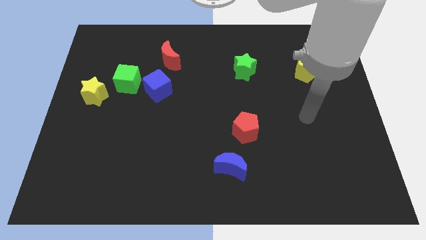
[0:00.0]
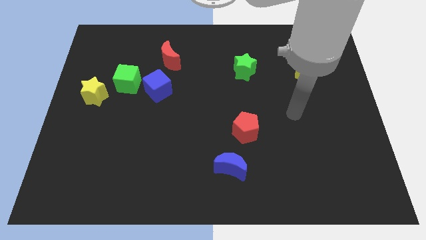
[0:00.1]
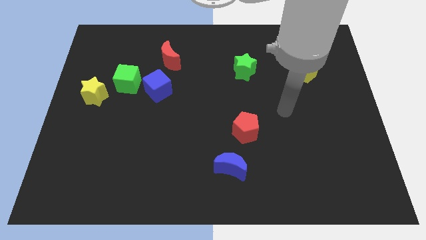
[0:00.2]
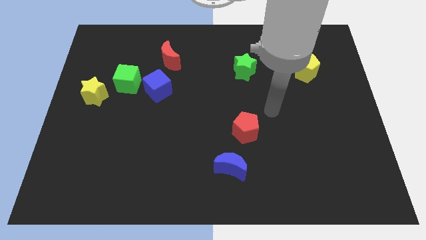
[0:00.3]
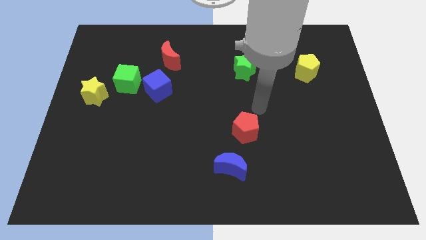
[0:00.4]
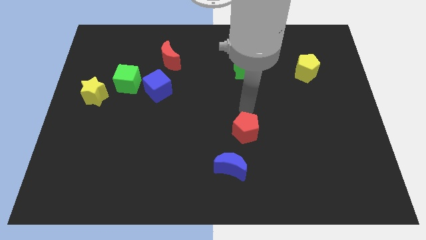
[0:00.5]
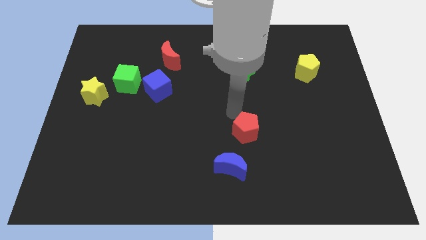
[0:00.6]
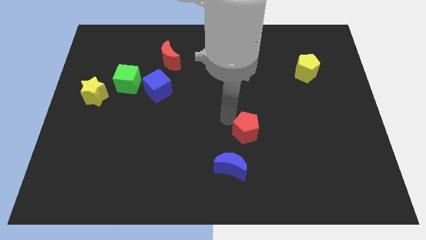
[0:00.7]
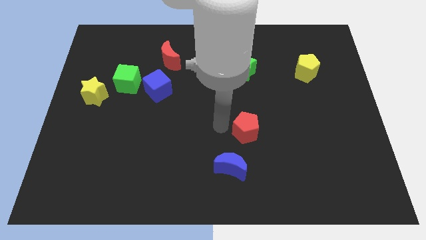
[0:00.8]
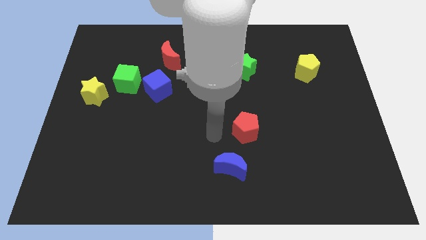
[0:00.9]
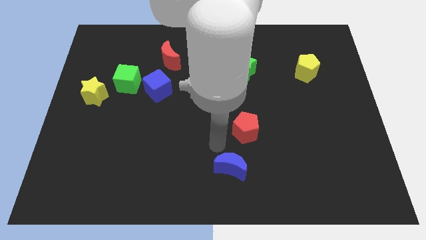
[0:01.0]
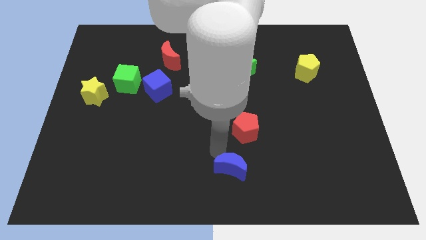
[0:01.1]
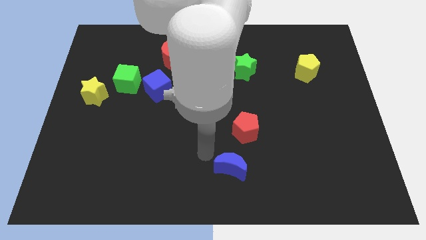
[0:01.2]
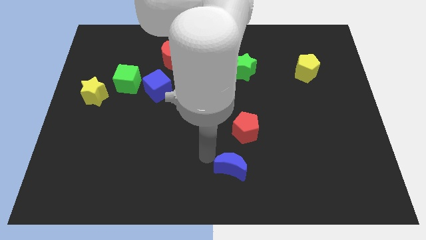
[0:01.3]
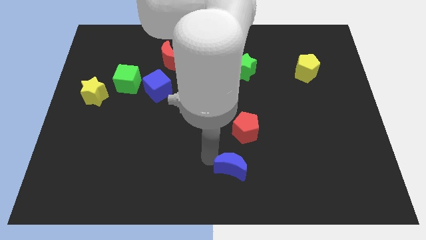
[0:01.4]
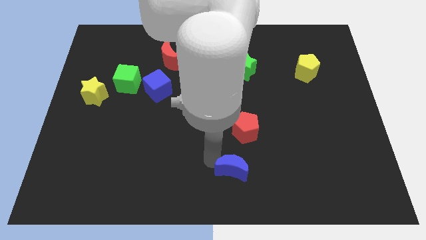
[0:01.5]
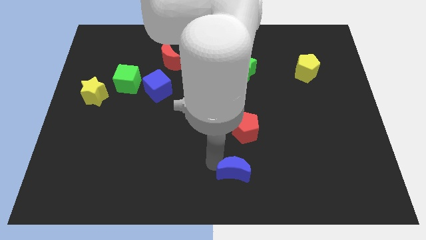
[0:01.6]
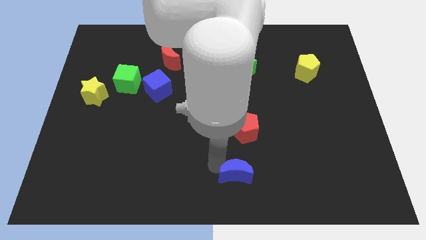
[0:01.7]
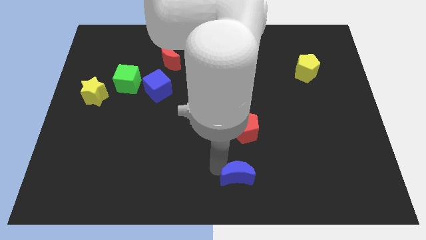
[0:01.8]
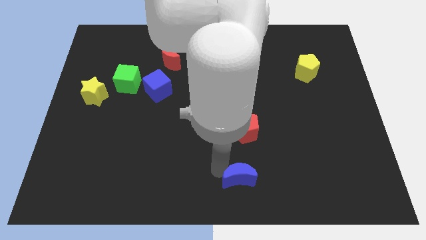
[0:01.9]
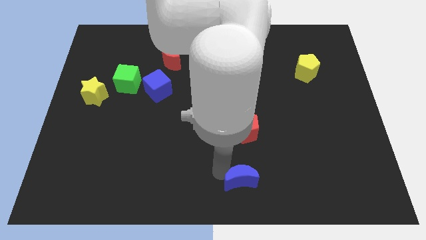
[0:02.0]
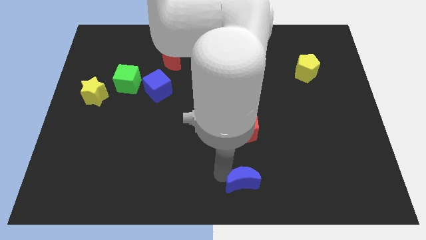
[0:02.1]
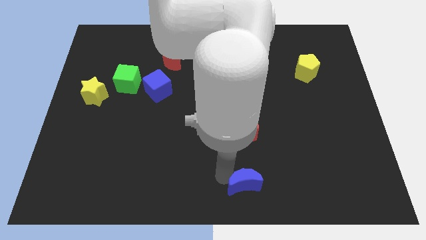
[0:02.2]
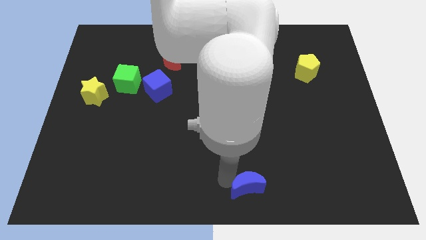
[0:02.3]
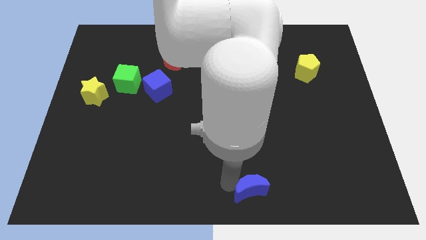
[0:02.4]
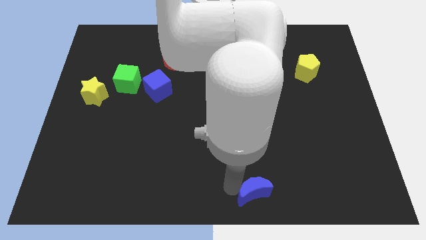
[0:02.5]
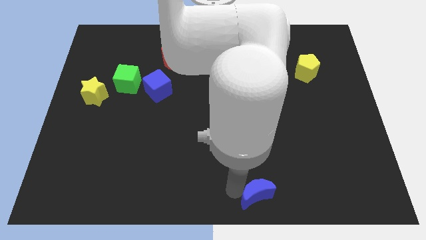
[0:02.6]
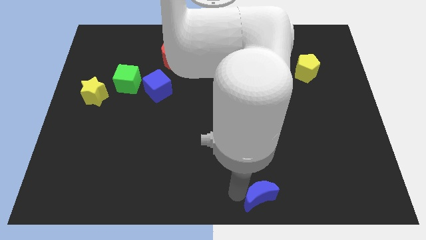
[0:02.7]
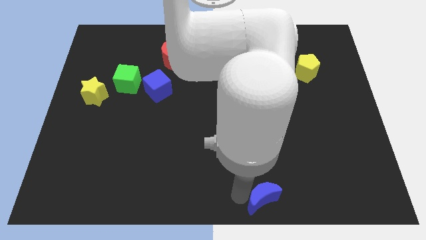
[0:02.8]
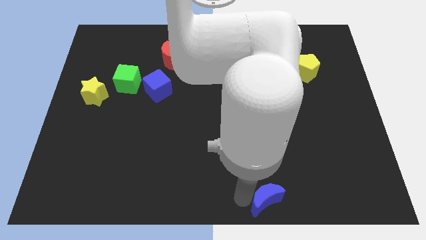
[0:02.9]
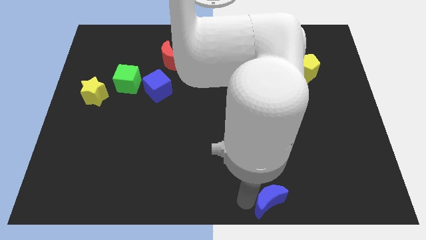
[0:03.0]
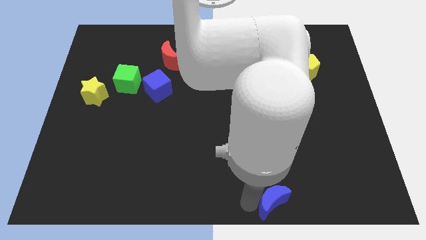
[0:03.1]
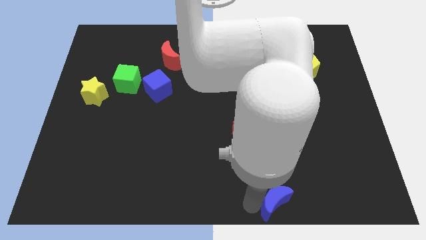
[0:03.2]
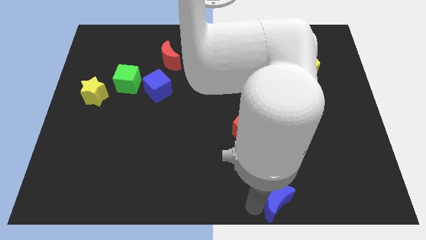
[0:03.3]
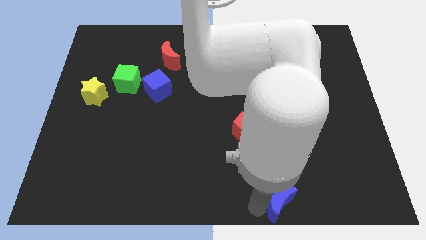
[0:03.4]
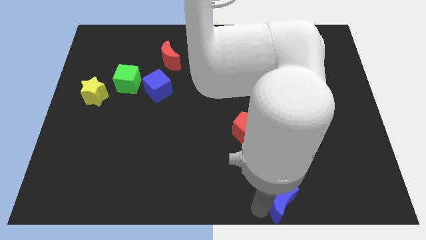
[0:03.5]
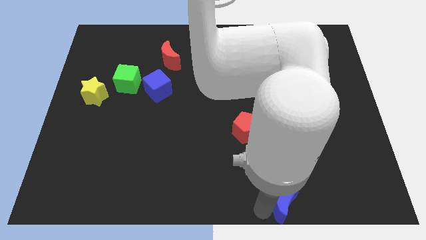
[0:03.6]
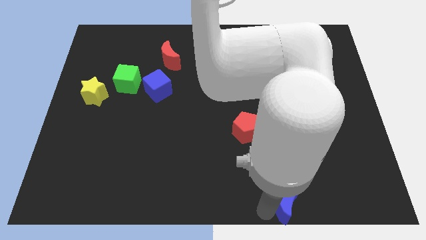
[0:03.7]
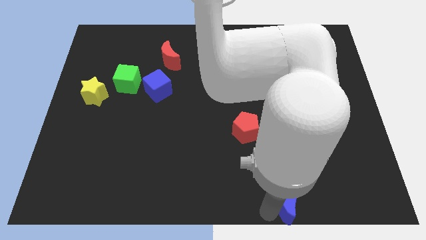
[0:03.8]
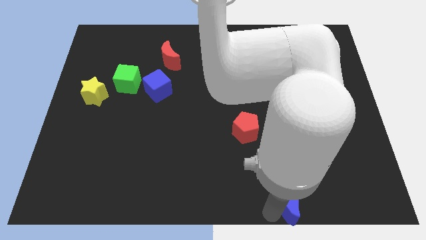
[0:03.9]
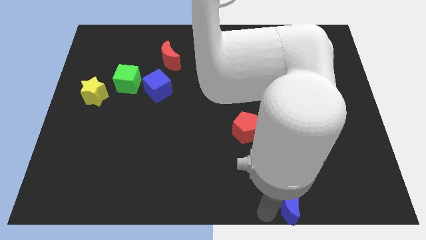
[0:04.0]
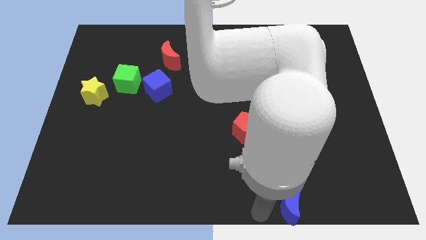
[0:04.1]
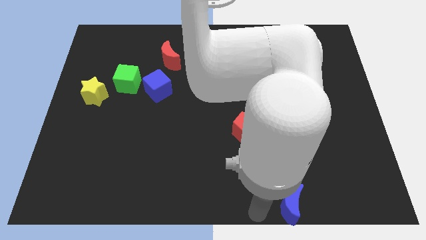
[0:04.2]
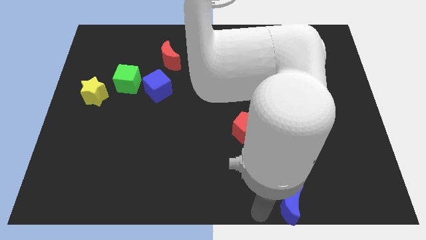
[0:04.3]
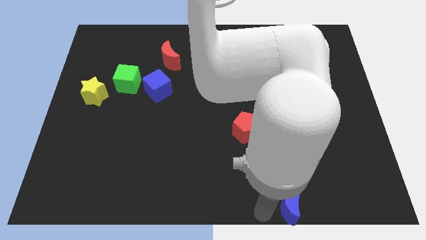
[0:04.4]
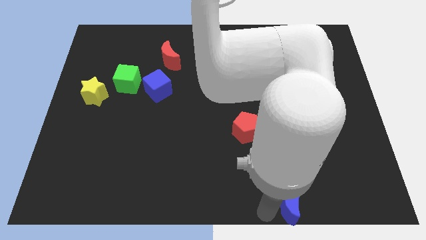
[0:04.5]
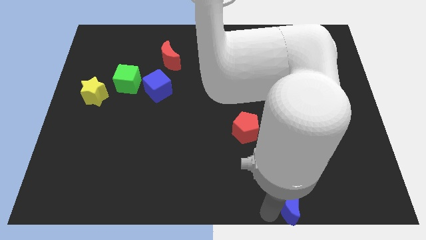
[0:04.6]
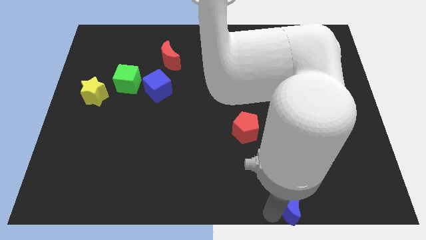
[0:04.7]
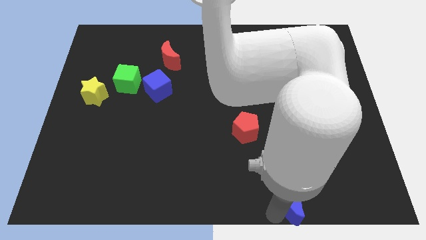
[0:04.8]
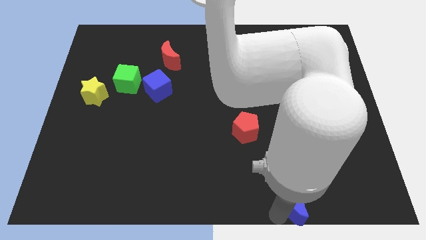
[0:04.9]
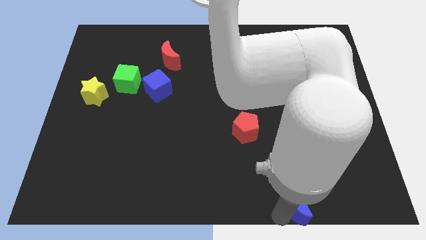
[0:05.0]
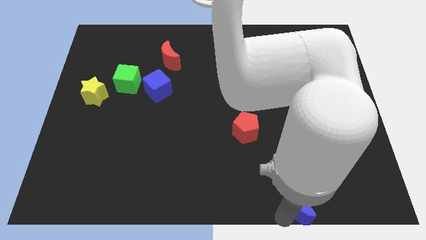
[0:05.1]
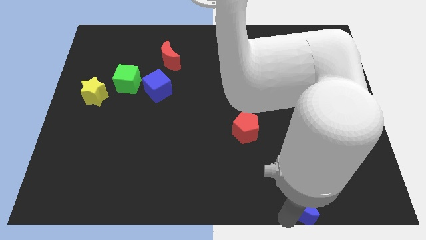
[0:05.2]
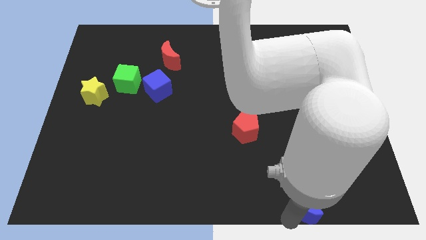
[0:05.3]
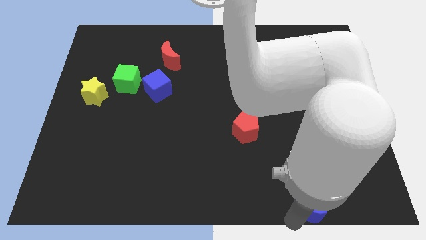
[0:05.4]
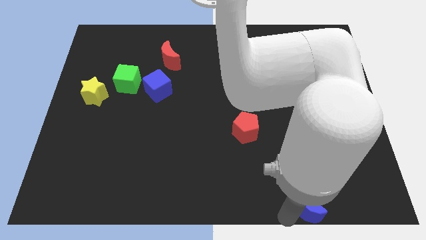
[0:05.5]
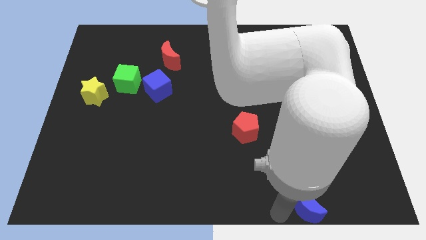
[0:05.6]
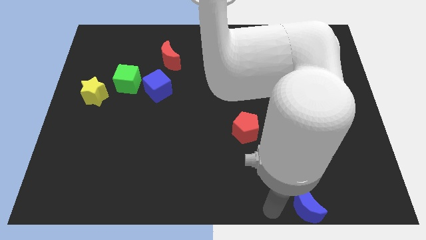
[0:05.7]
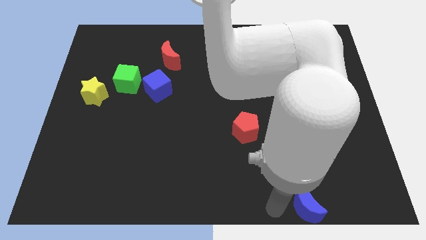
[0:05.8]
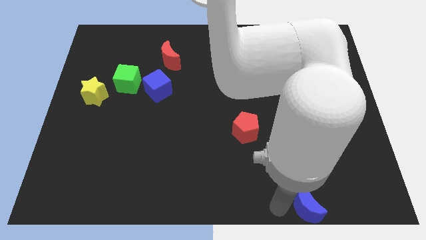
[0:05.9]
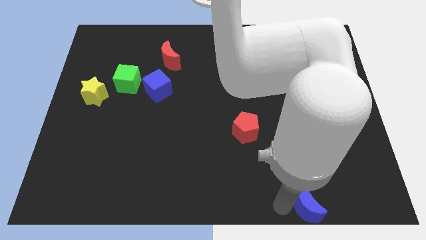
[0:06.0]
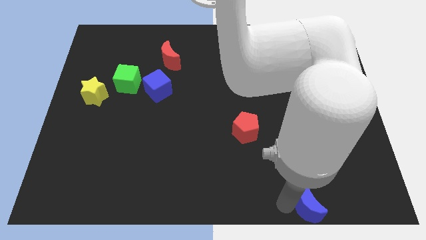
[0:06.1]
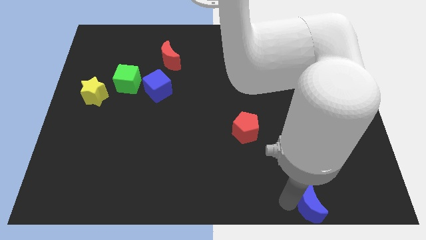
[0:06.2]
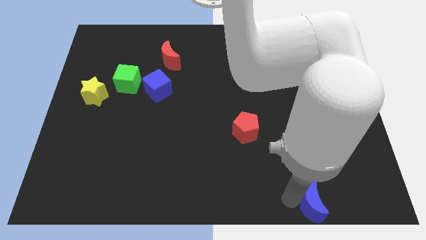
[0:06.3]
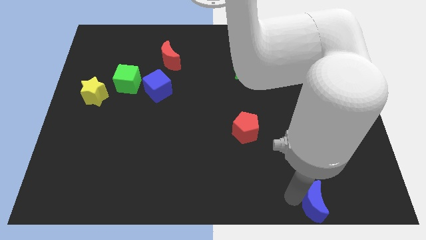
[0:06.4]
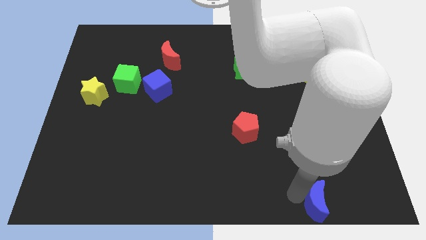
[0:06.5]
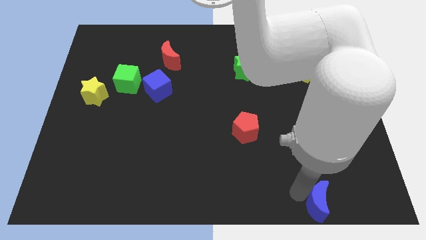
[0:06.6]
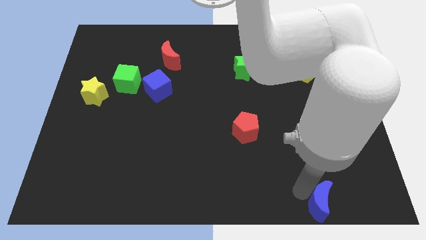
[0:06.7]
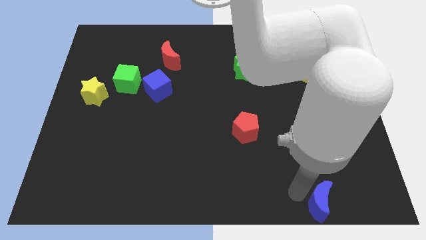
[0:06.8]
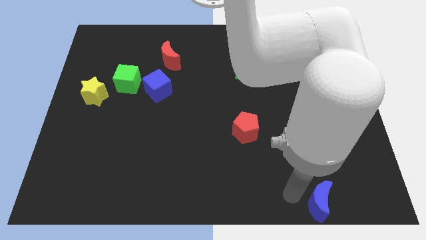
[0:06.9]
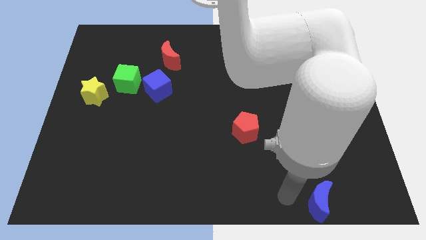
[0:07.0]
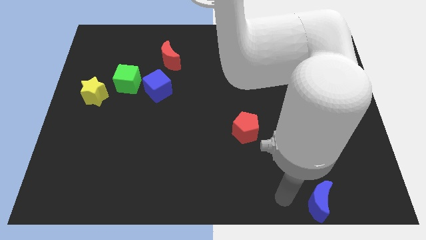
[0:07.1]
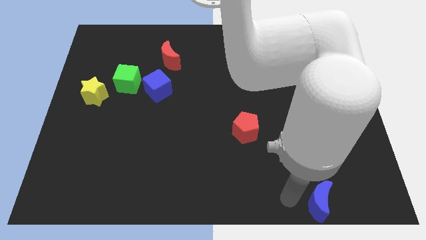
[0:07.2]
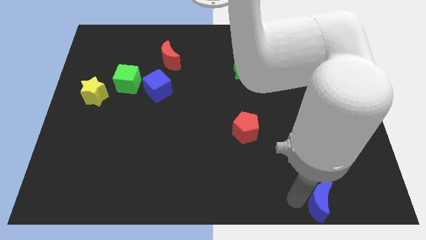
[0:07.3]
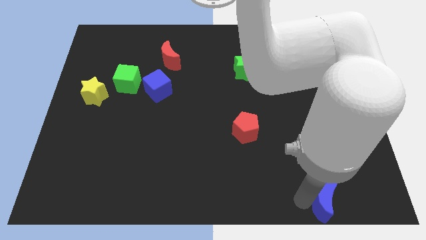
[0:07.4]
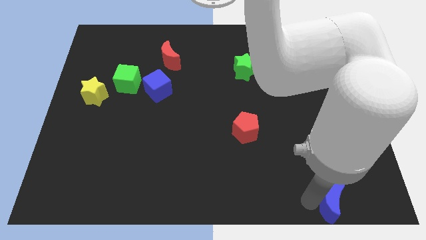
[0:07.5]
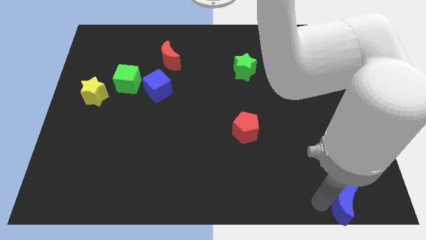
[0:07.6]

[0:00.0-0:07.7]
push the blue moon to the lower right corner
